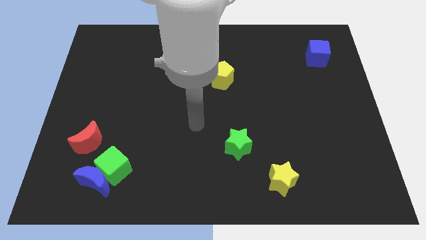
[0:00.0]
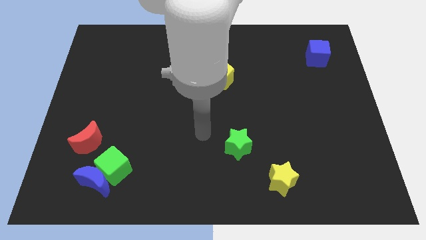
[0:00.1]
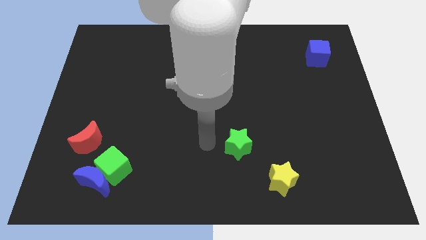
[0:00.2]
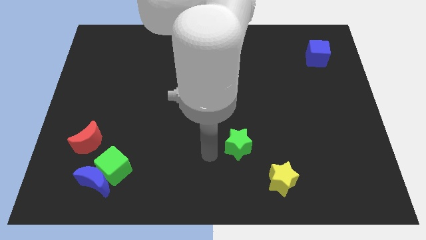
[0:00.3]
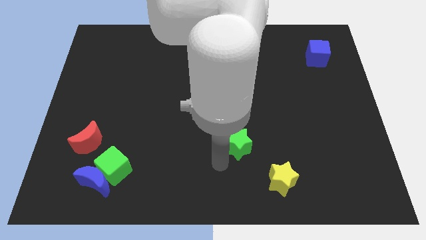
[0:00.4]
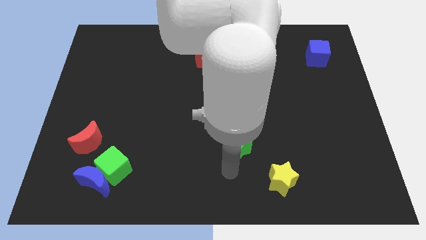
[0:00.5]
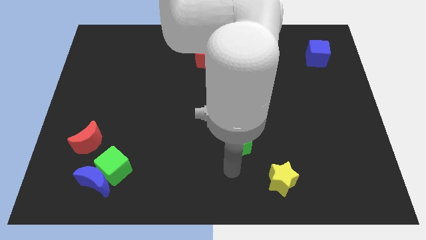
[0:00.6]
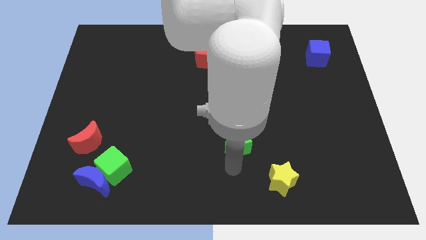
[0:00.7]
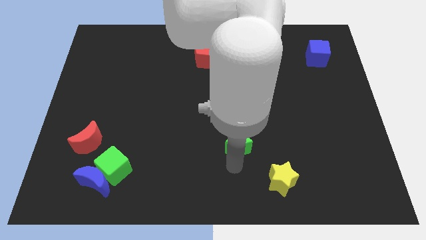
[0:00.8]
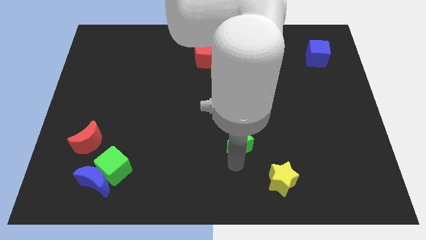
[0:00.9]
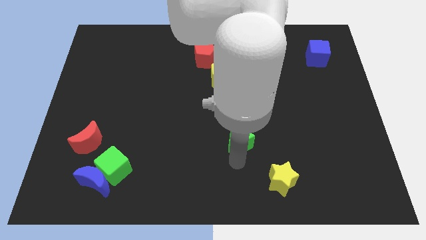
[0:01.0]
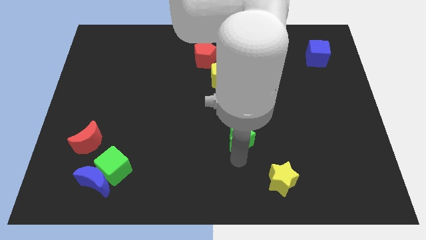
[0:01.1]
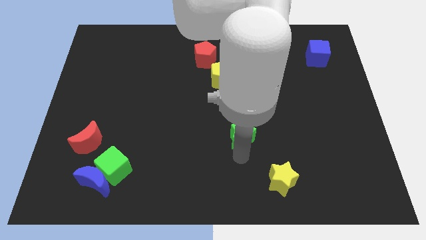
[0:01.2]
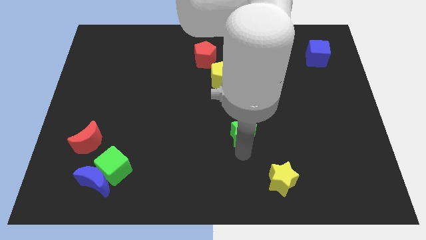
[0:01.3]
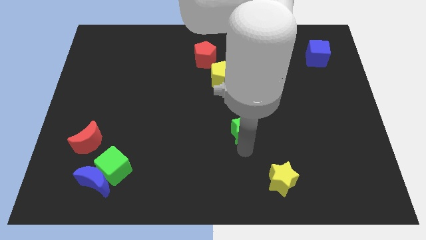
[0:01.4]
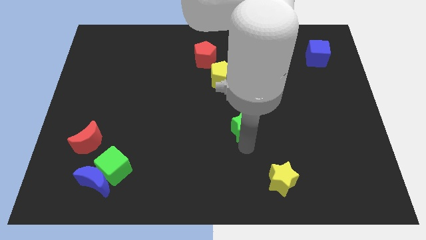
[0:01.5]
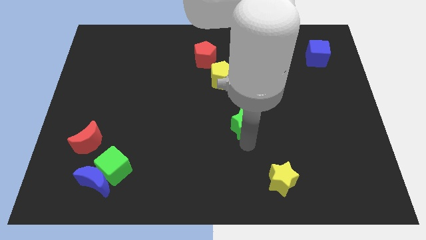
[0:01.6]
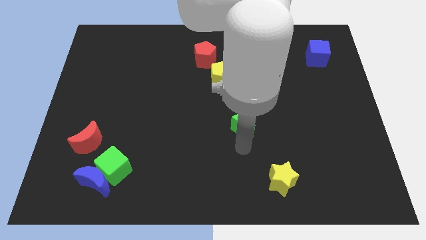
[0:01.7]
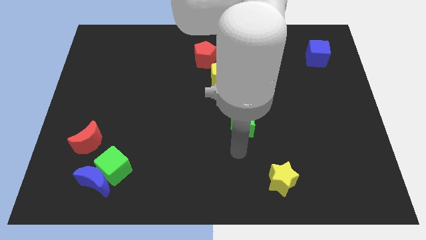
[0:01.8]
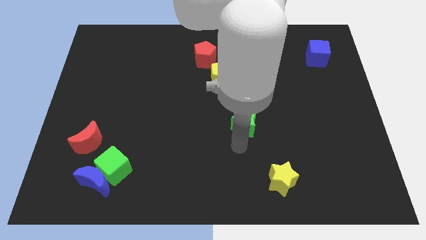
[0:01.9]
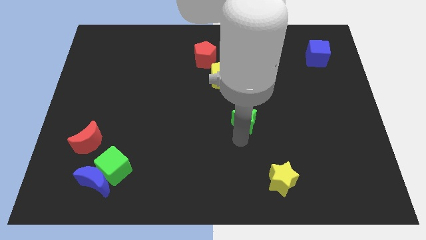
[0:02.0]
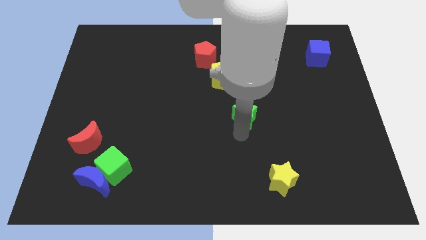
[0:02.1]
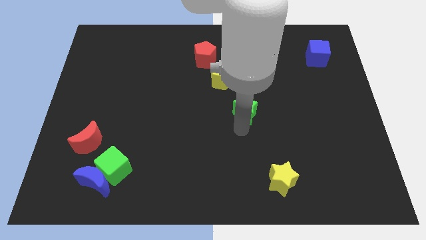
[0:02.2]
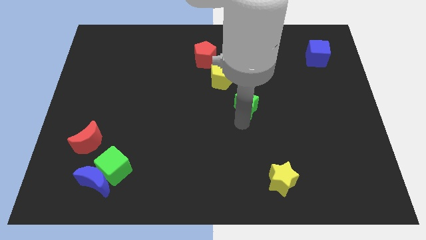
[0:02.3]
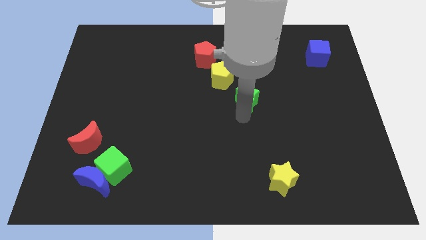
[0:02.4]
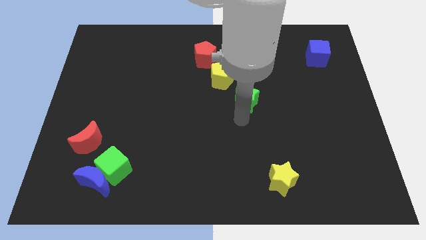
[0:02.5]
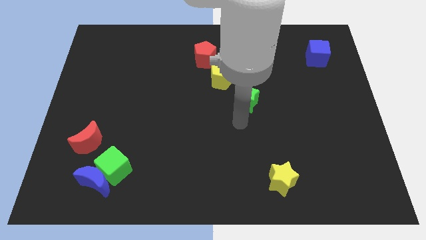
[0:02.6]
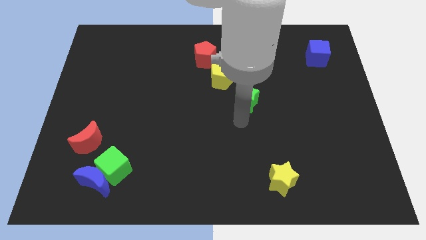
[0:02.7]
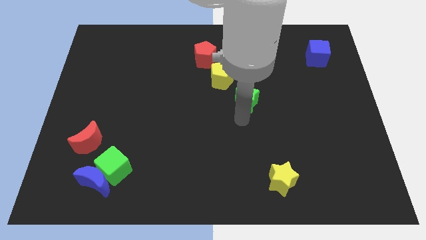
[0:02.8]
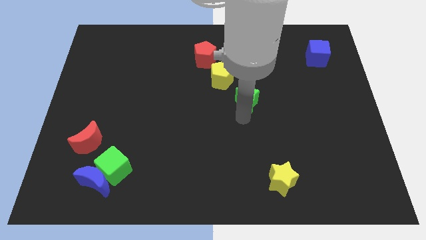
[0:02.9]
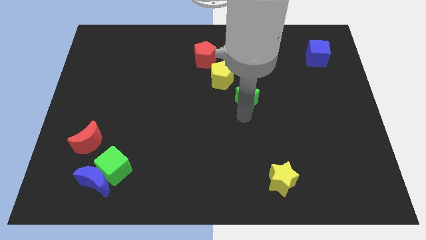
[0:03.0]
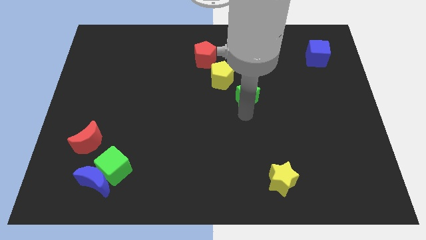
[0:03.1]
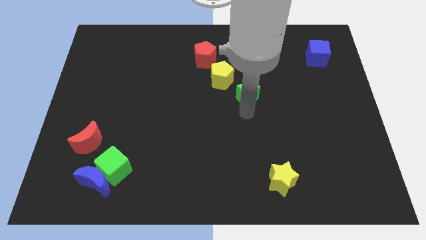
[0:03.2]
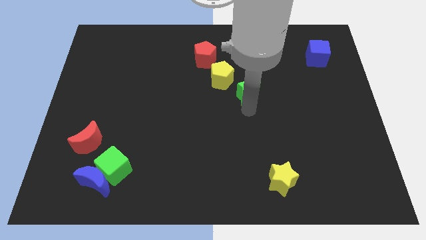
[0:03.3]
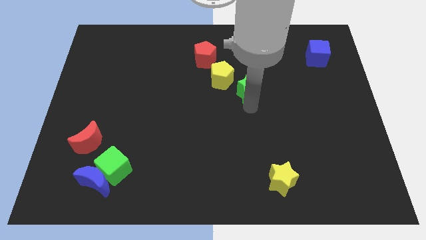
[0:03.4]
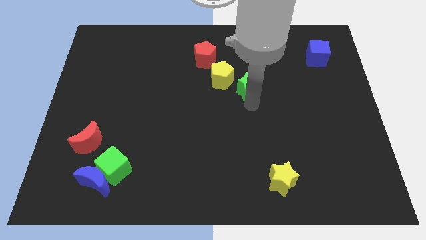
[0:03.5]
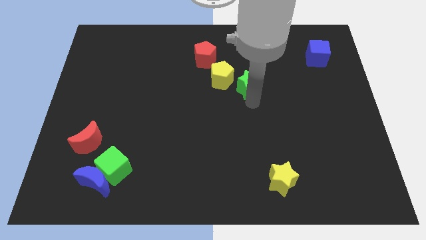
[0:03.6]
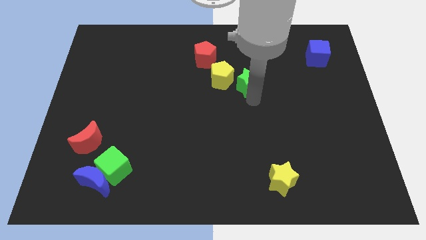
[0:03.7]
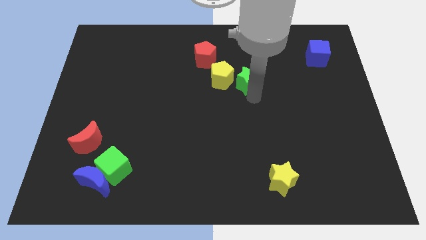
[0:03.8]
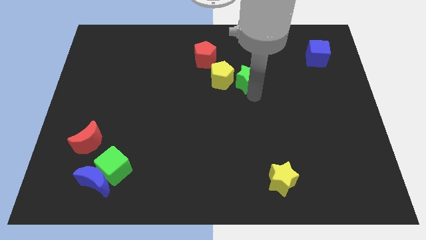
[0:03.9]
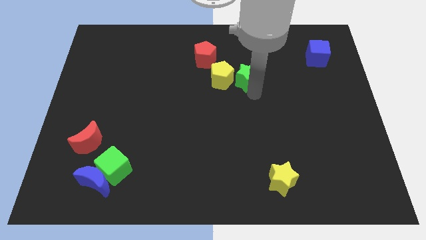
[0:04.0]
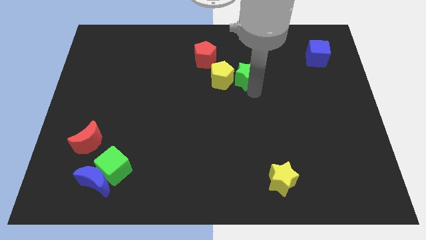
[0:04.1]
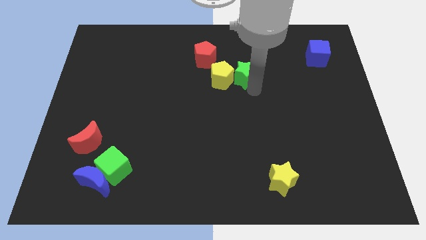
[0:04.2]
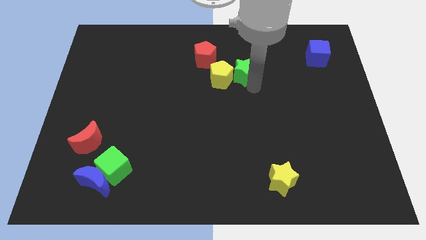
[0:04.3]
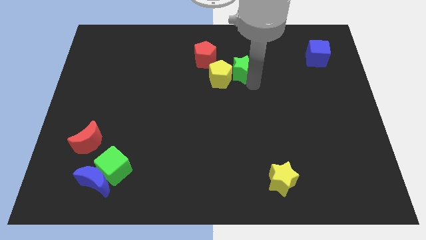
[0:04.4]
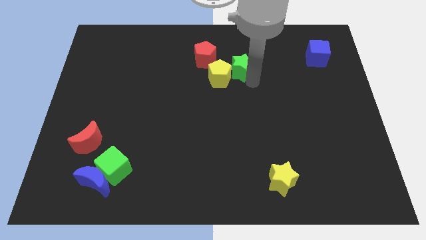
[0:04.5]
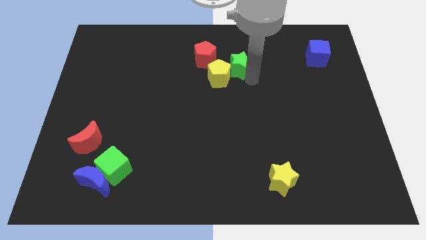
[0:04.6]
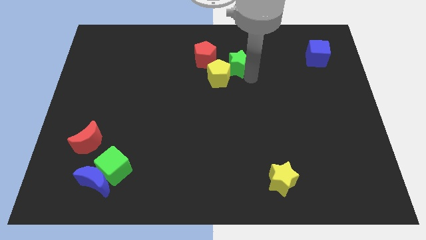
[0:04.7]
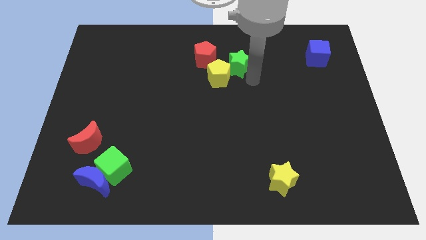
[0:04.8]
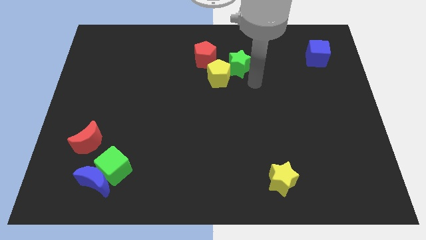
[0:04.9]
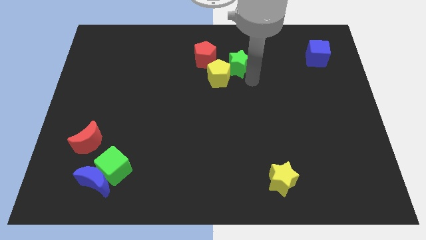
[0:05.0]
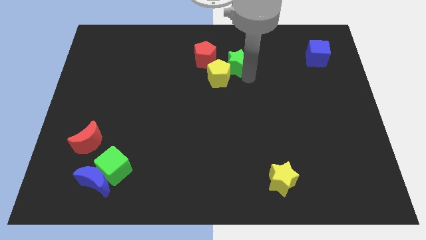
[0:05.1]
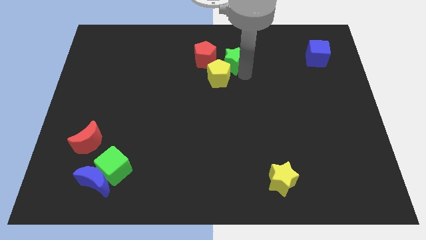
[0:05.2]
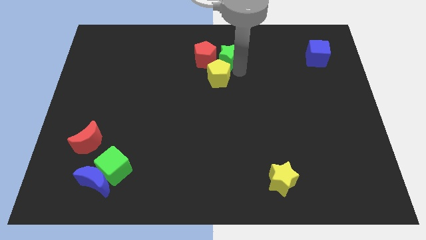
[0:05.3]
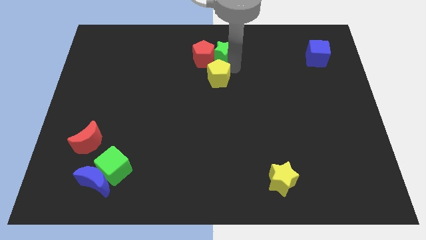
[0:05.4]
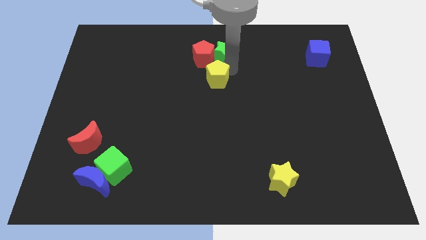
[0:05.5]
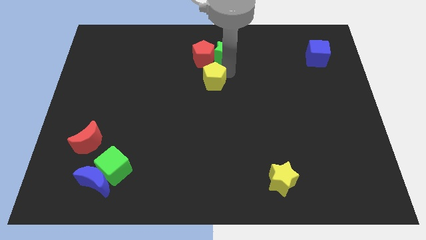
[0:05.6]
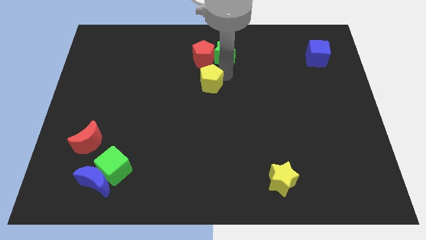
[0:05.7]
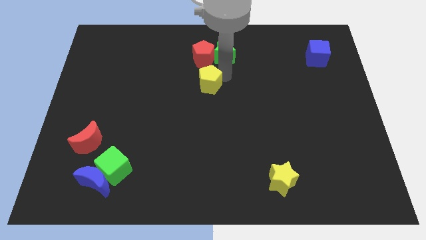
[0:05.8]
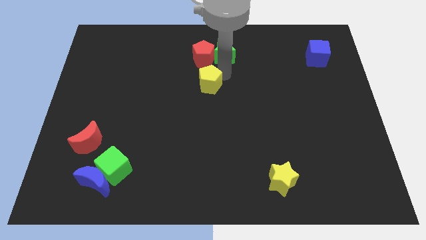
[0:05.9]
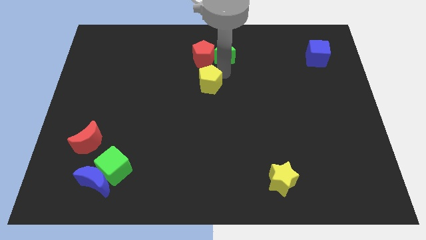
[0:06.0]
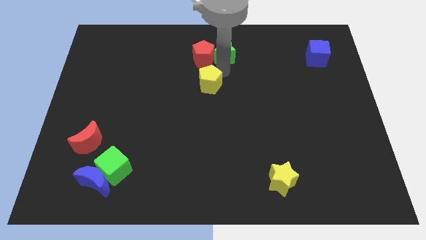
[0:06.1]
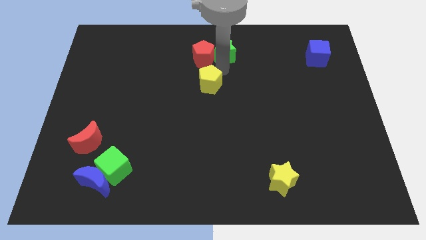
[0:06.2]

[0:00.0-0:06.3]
push the green star to the towards your base
